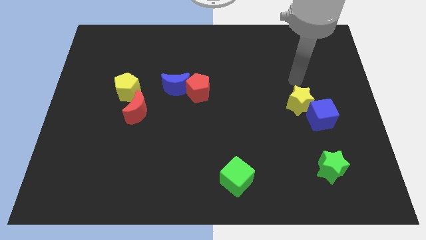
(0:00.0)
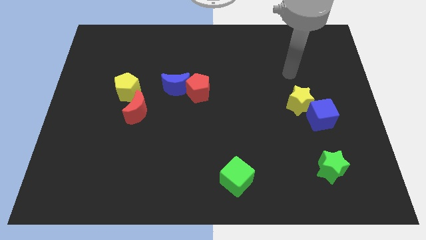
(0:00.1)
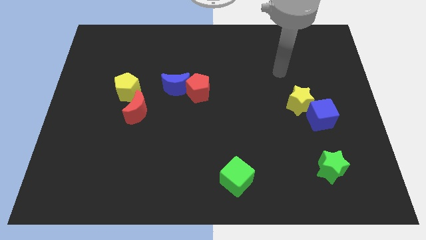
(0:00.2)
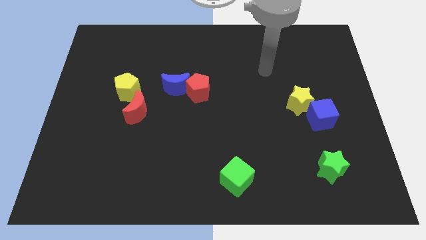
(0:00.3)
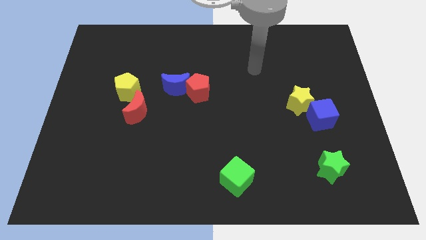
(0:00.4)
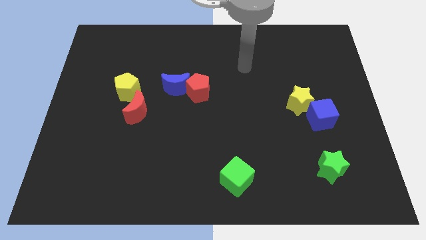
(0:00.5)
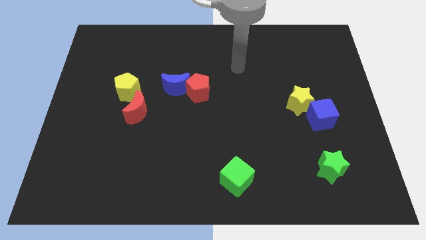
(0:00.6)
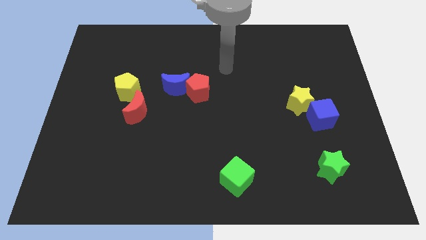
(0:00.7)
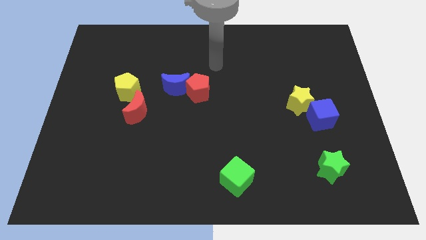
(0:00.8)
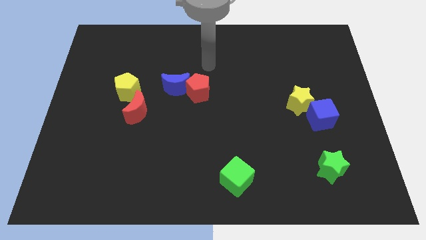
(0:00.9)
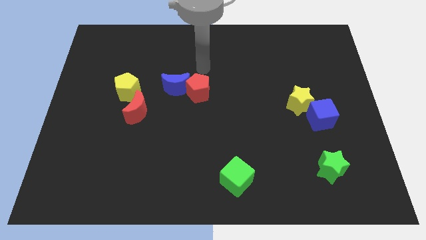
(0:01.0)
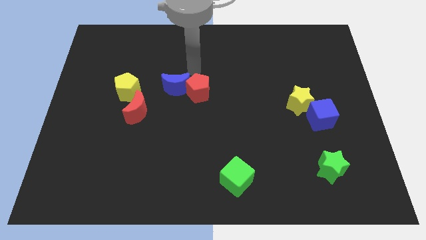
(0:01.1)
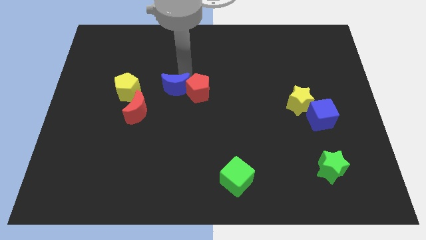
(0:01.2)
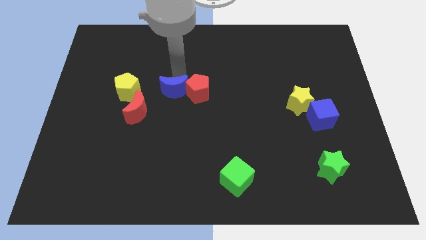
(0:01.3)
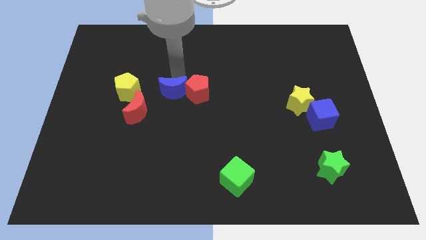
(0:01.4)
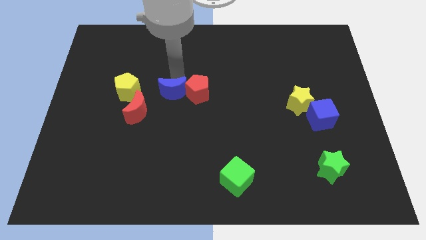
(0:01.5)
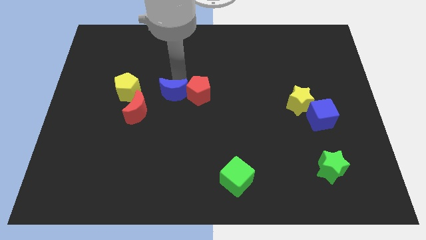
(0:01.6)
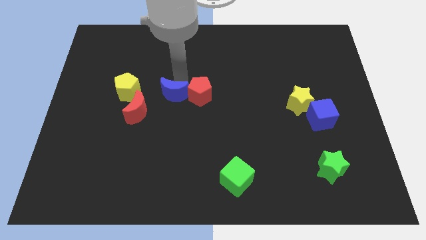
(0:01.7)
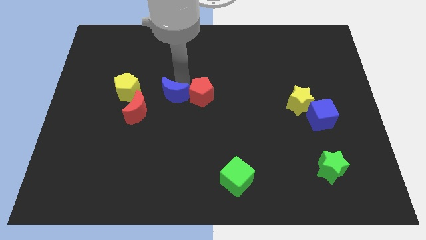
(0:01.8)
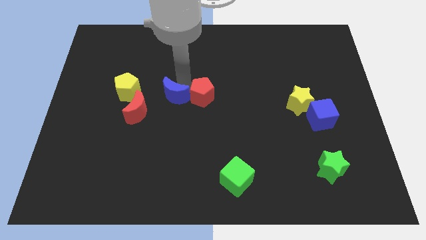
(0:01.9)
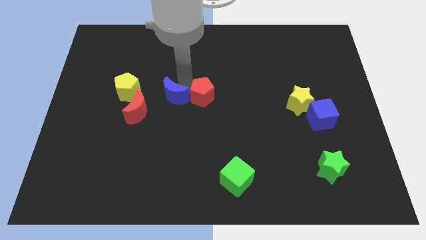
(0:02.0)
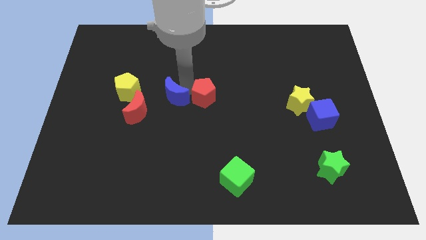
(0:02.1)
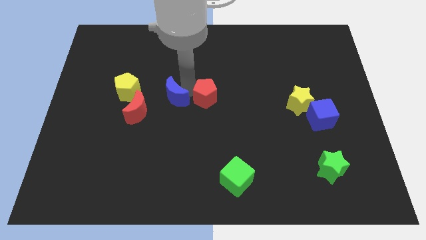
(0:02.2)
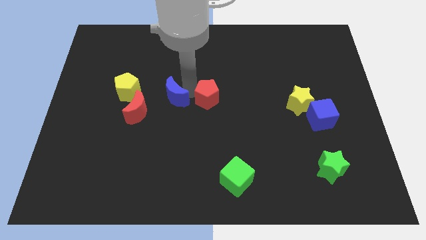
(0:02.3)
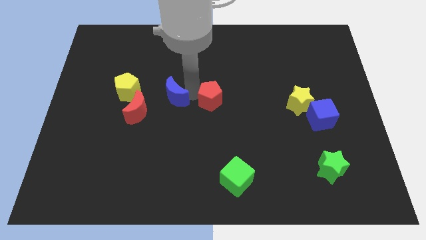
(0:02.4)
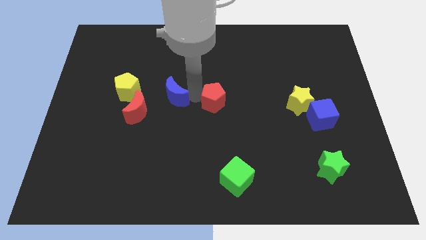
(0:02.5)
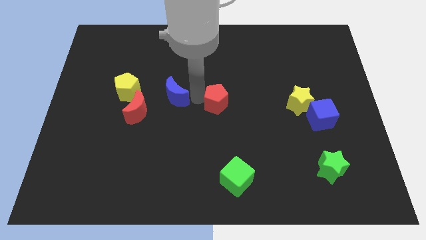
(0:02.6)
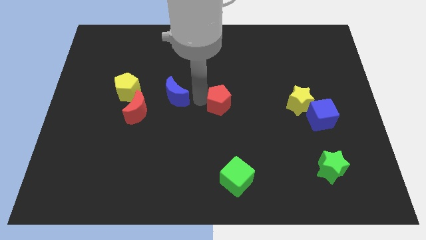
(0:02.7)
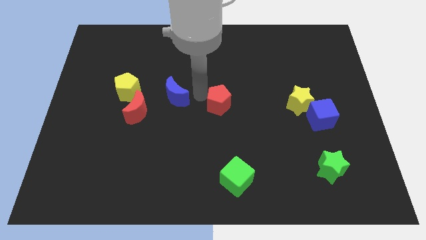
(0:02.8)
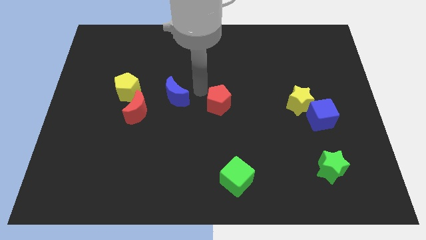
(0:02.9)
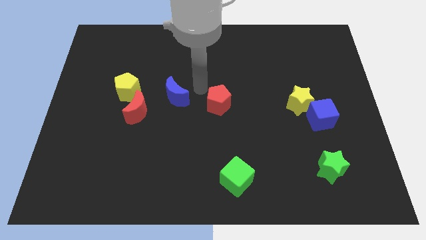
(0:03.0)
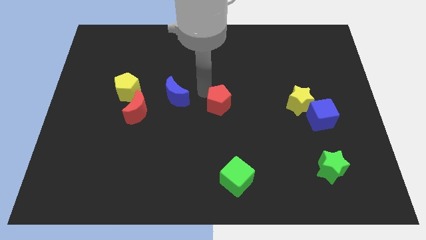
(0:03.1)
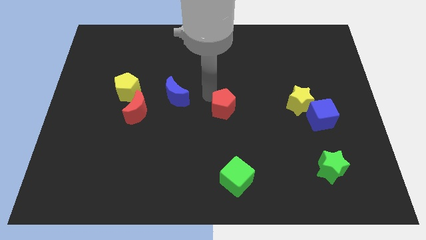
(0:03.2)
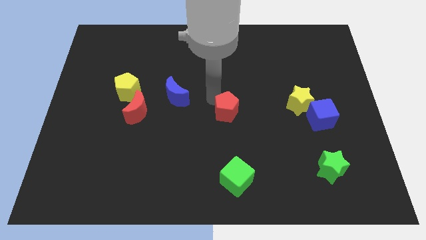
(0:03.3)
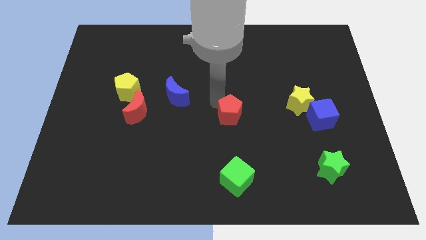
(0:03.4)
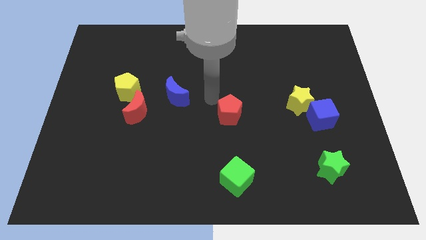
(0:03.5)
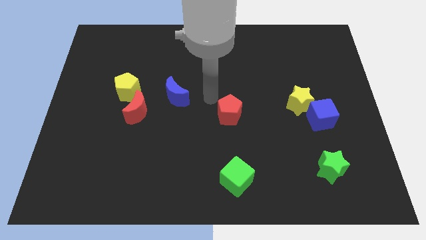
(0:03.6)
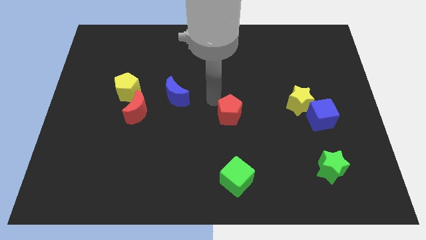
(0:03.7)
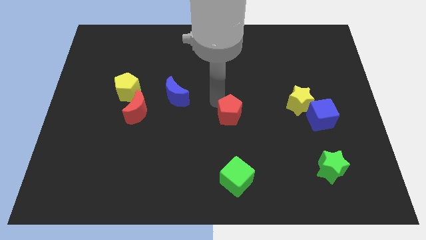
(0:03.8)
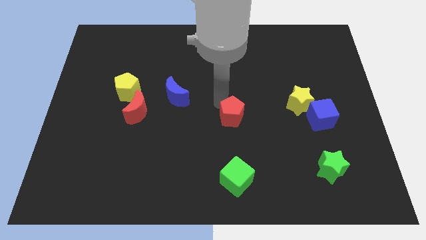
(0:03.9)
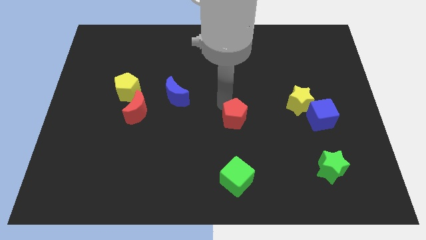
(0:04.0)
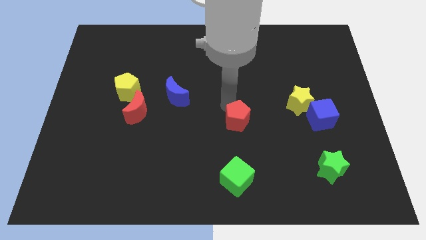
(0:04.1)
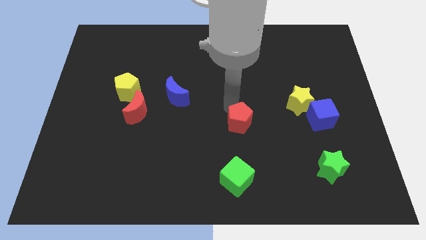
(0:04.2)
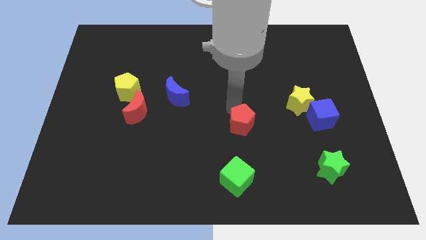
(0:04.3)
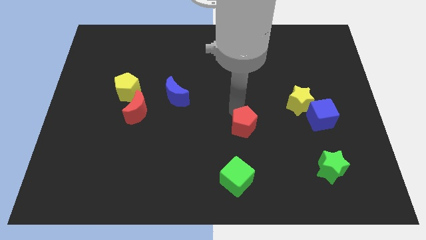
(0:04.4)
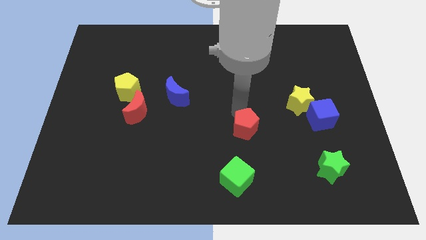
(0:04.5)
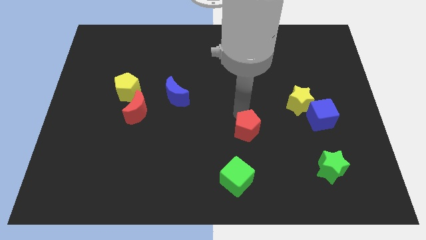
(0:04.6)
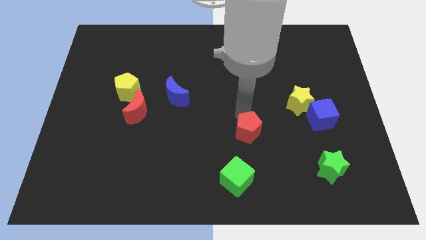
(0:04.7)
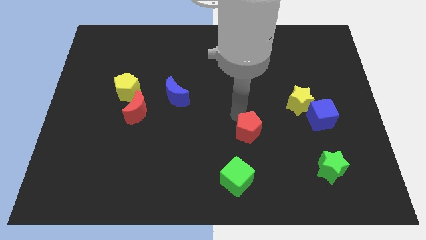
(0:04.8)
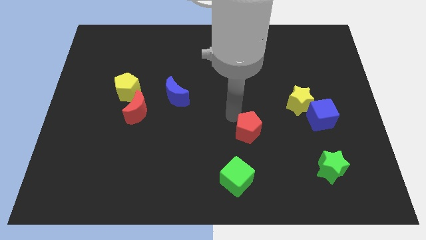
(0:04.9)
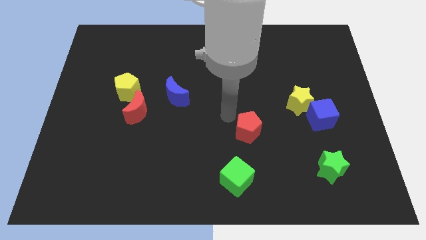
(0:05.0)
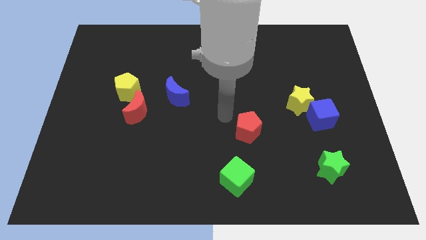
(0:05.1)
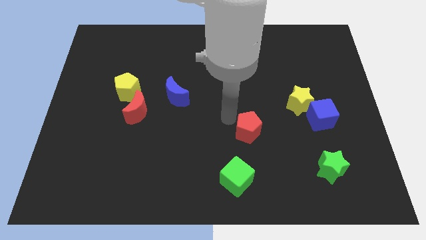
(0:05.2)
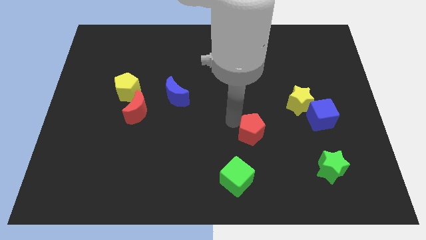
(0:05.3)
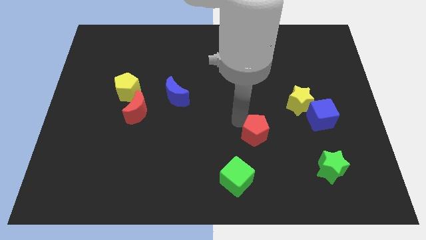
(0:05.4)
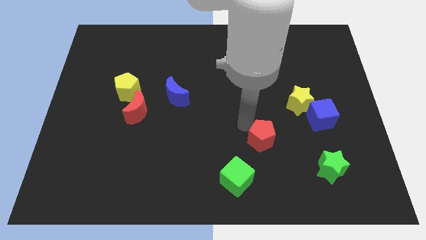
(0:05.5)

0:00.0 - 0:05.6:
push the red pentagon down and right

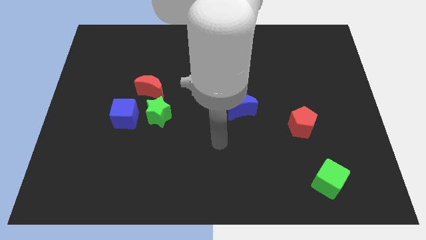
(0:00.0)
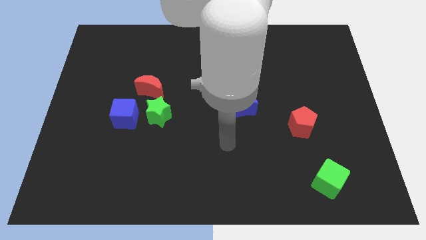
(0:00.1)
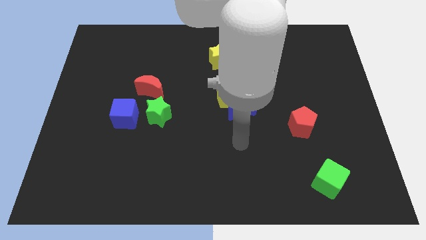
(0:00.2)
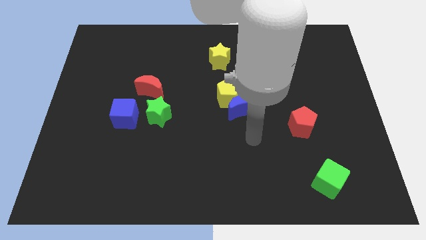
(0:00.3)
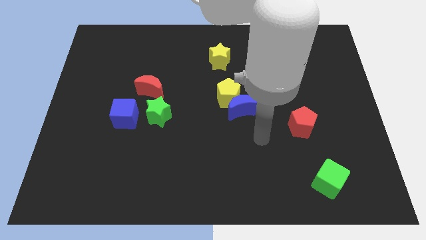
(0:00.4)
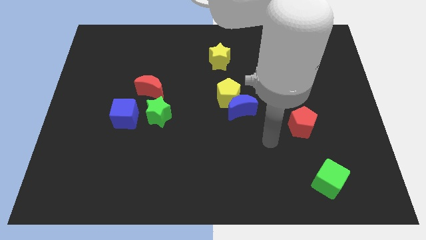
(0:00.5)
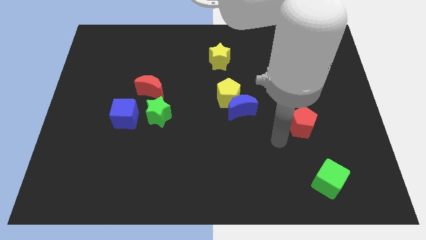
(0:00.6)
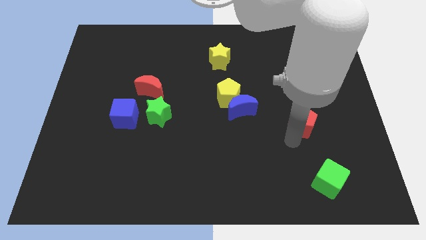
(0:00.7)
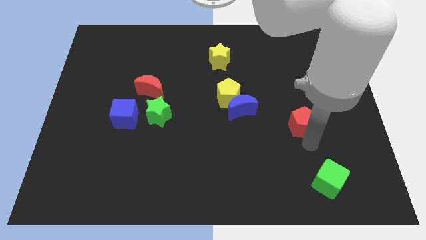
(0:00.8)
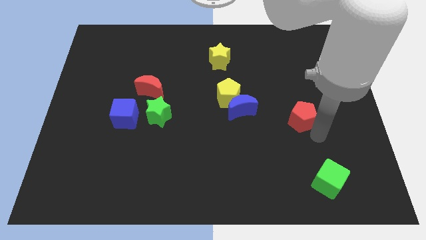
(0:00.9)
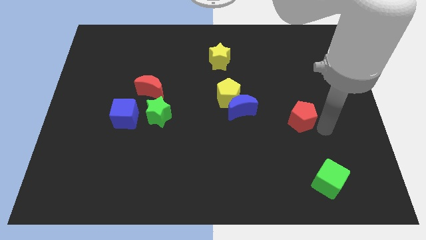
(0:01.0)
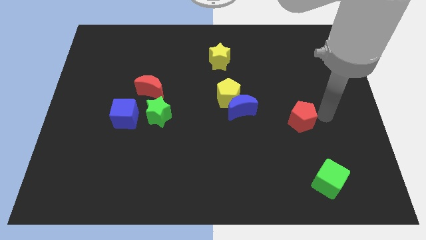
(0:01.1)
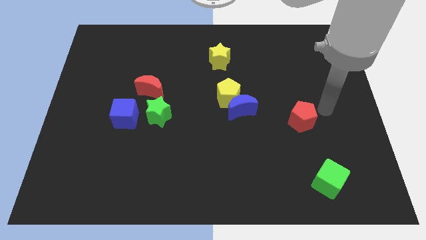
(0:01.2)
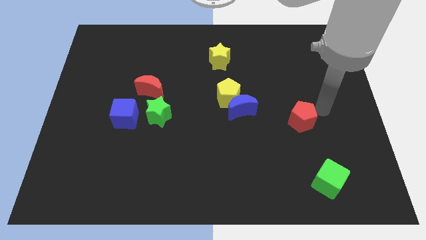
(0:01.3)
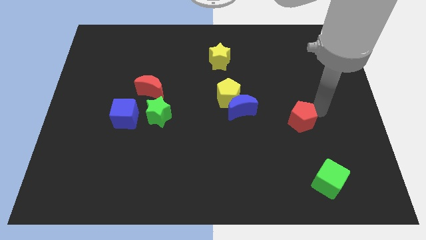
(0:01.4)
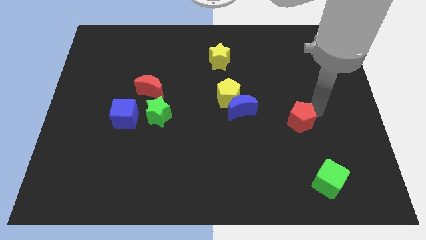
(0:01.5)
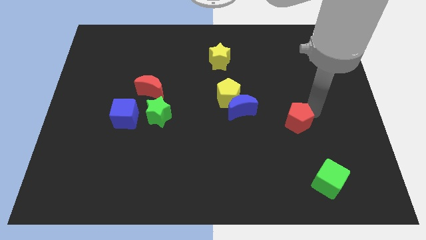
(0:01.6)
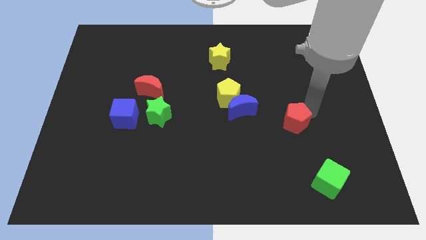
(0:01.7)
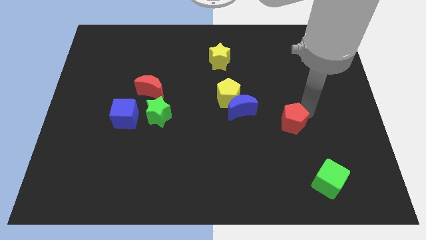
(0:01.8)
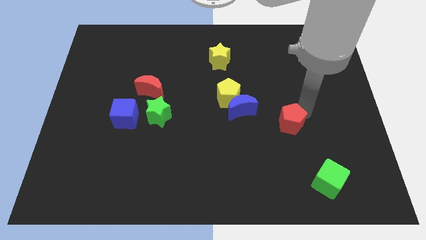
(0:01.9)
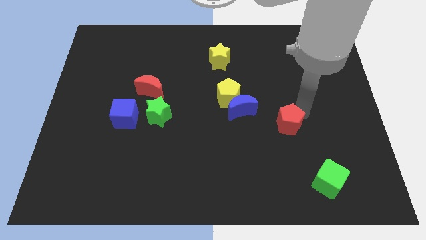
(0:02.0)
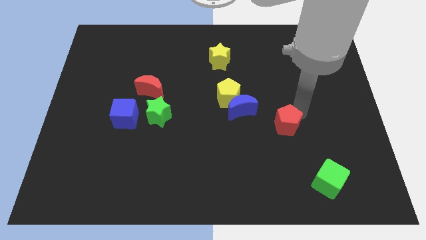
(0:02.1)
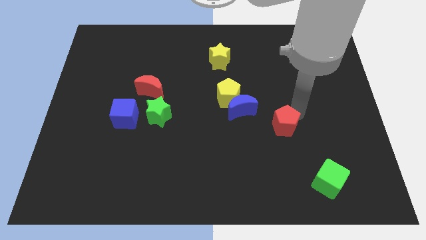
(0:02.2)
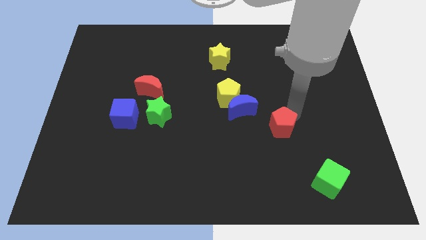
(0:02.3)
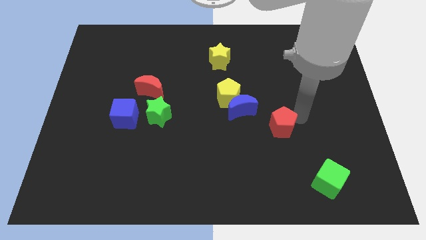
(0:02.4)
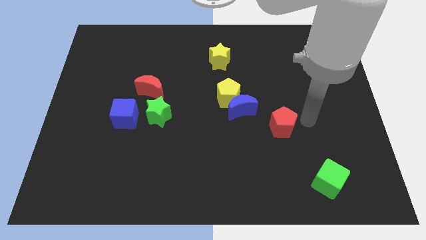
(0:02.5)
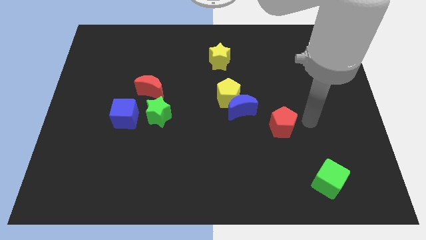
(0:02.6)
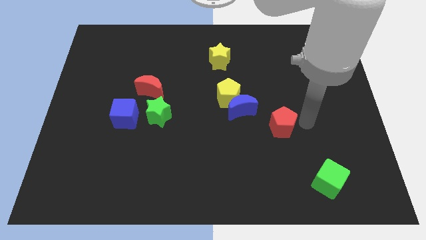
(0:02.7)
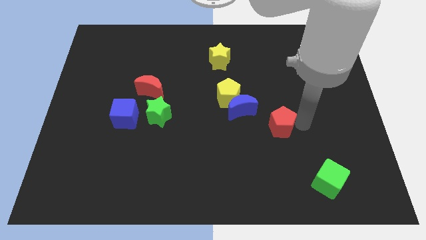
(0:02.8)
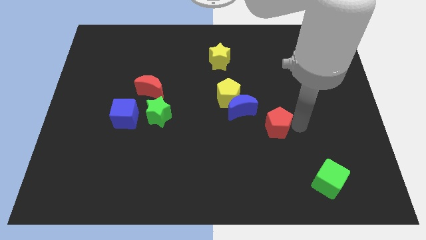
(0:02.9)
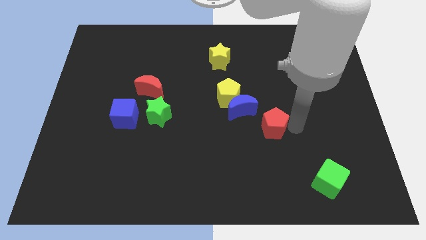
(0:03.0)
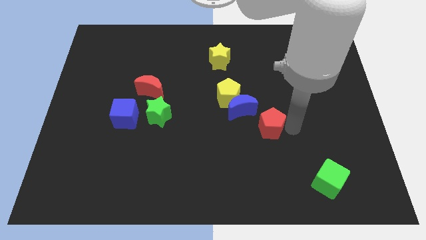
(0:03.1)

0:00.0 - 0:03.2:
slide the red pentagon slightly left
